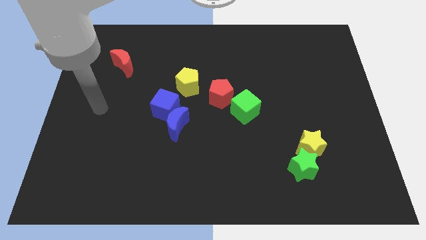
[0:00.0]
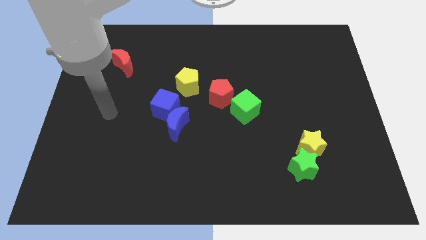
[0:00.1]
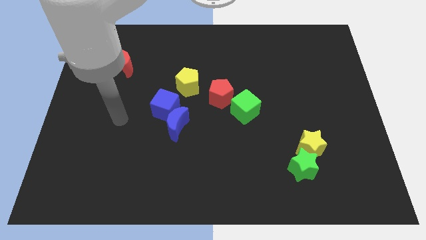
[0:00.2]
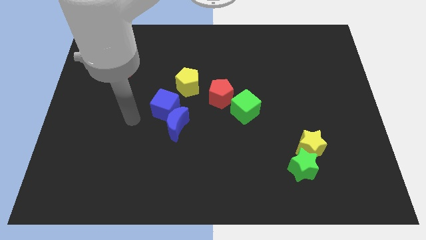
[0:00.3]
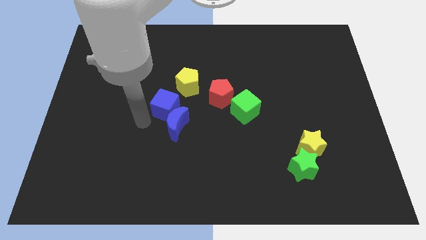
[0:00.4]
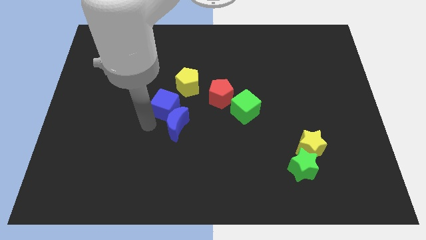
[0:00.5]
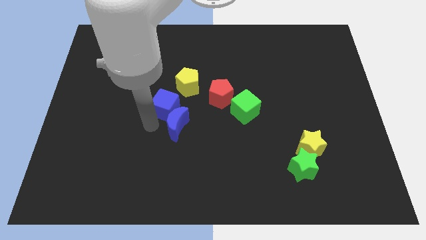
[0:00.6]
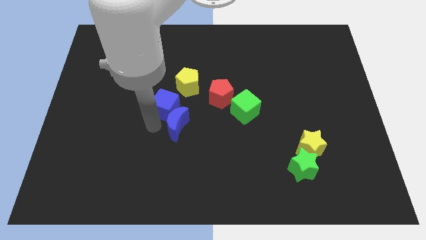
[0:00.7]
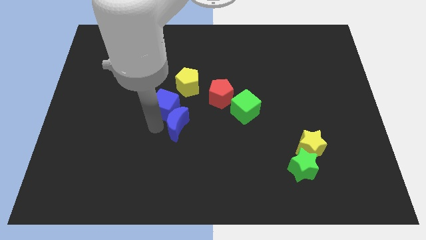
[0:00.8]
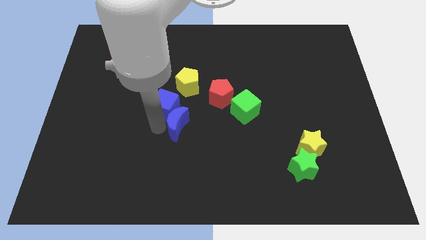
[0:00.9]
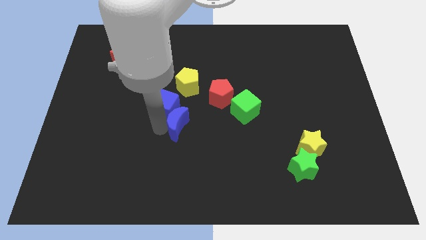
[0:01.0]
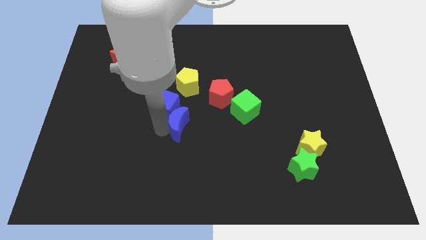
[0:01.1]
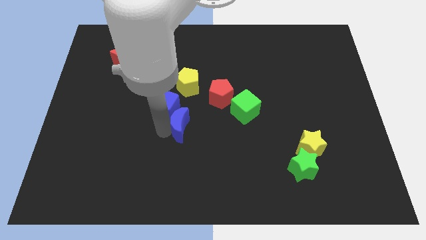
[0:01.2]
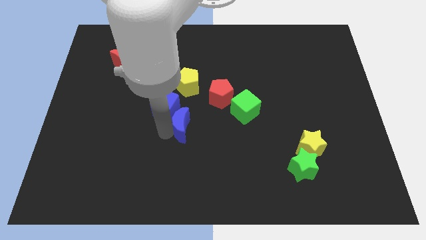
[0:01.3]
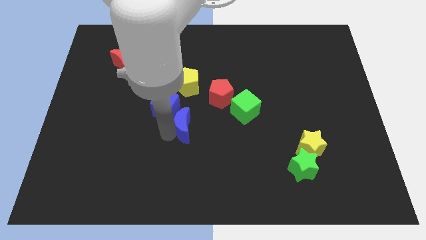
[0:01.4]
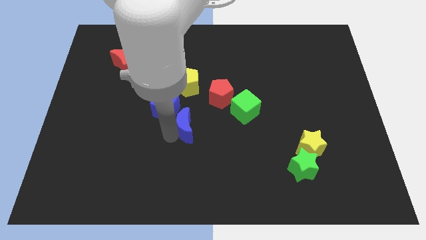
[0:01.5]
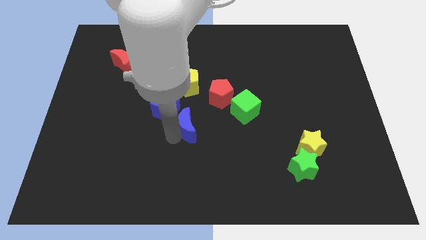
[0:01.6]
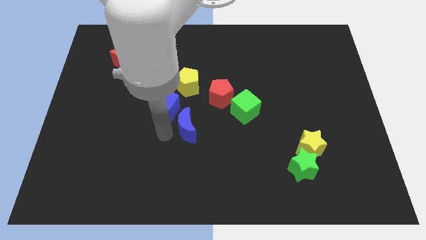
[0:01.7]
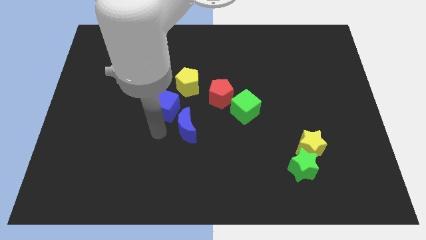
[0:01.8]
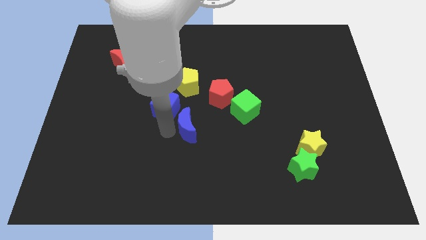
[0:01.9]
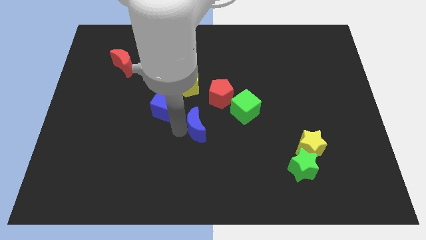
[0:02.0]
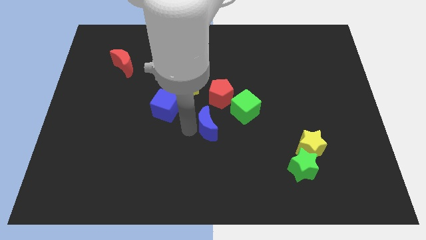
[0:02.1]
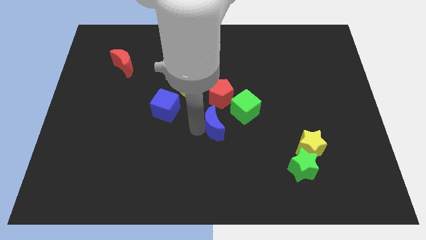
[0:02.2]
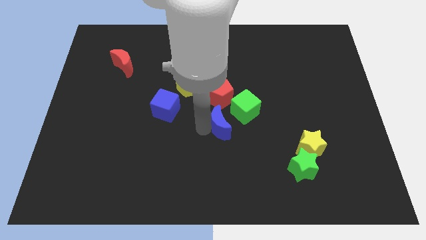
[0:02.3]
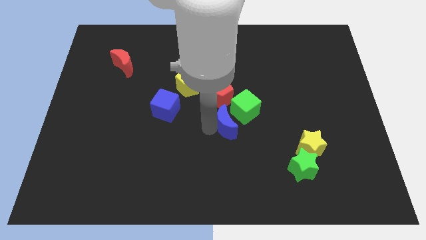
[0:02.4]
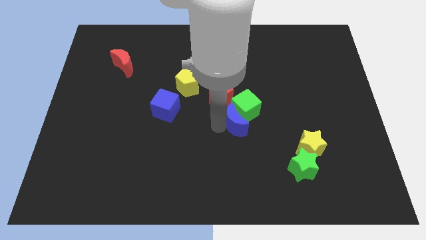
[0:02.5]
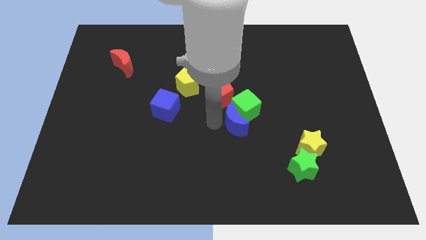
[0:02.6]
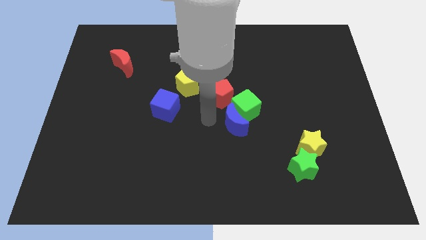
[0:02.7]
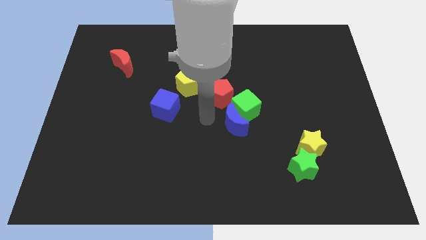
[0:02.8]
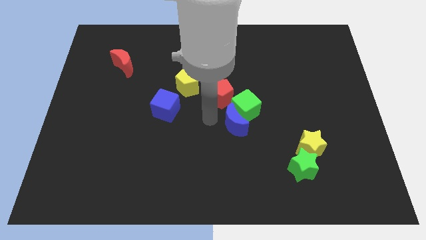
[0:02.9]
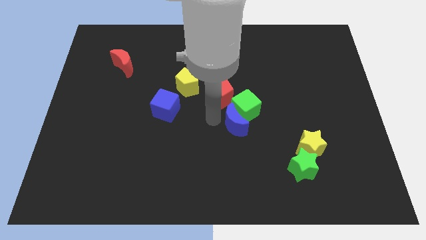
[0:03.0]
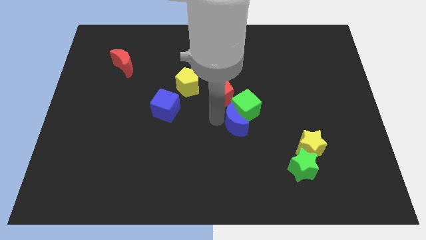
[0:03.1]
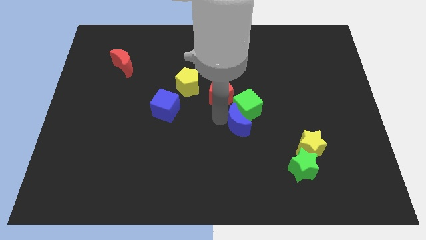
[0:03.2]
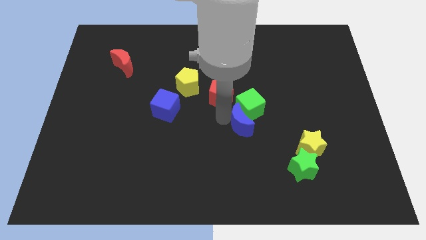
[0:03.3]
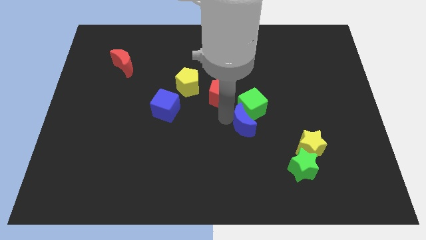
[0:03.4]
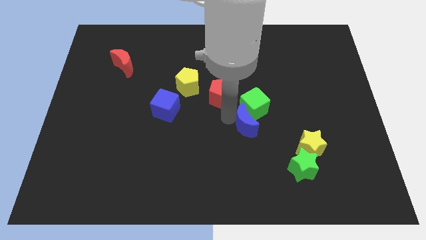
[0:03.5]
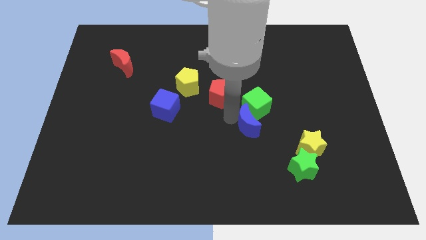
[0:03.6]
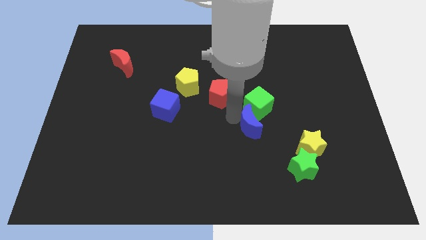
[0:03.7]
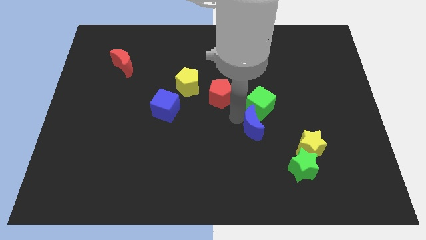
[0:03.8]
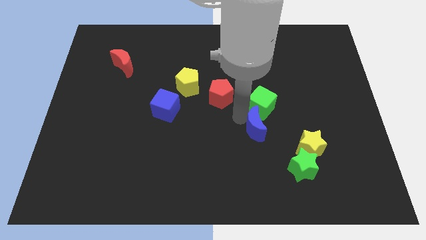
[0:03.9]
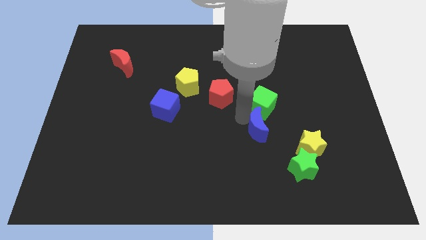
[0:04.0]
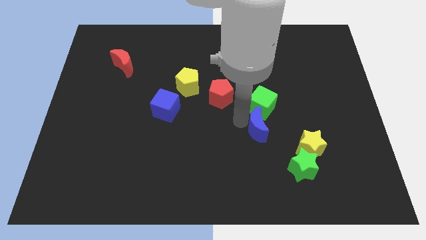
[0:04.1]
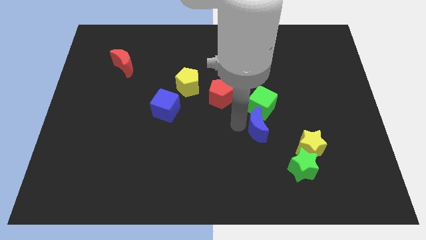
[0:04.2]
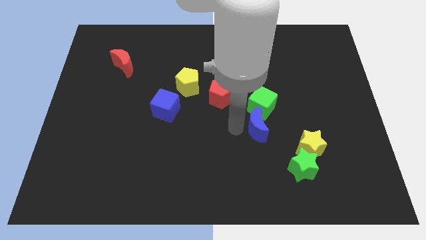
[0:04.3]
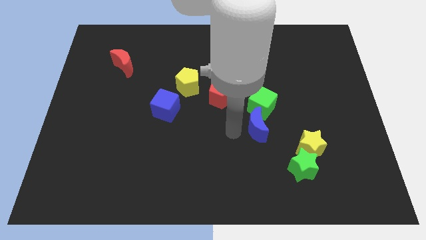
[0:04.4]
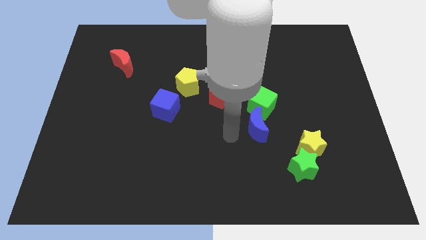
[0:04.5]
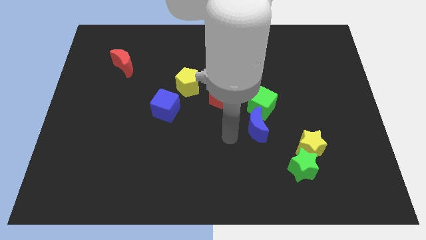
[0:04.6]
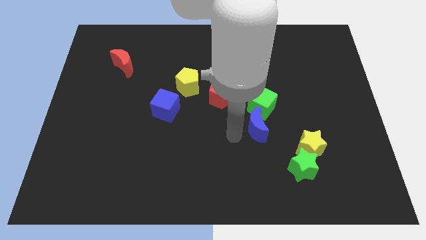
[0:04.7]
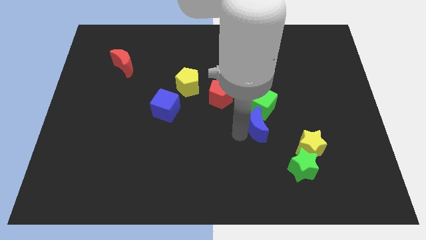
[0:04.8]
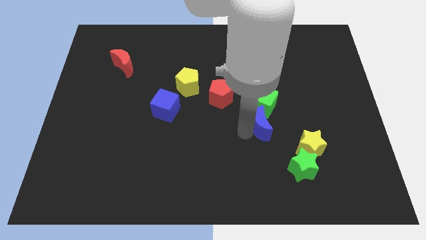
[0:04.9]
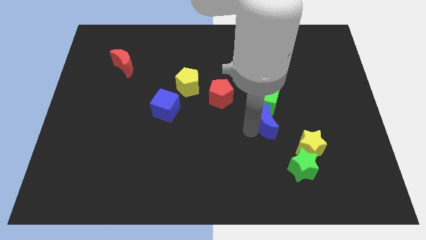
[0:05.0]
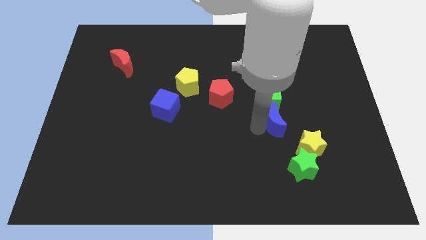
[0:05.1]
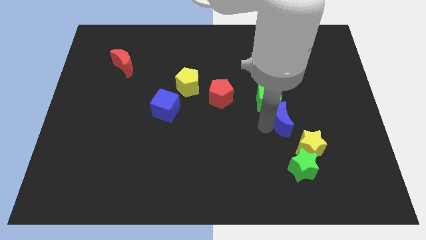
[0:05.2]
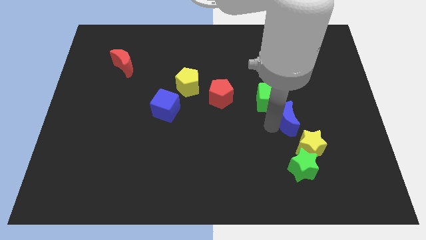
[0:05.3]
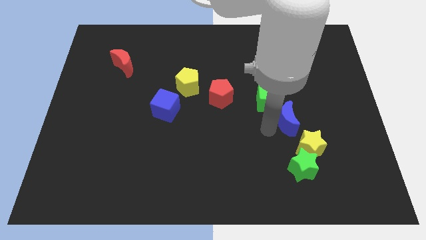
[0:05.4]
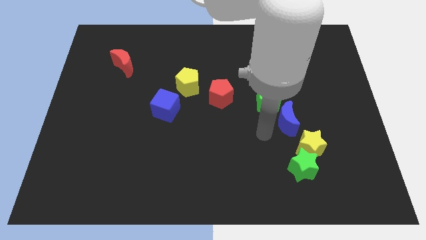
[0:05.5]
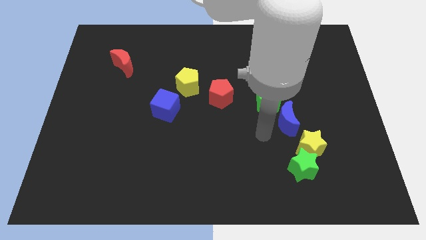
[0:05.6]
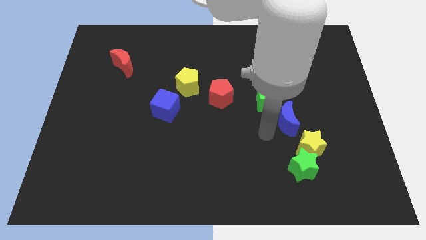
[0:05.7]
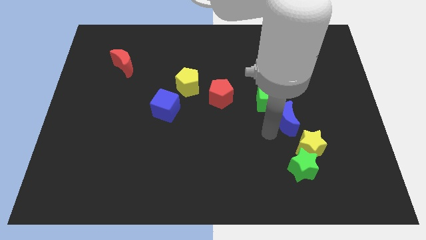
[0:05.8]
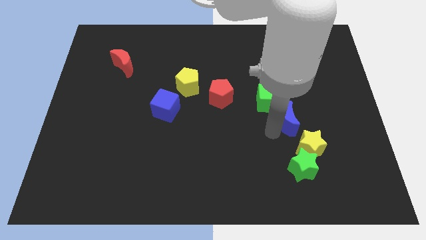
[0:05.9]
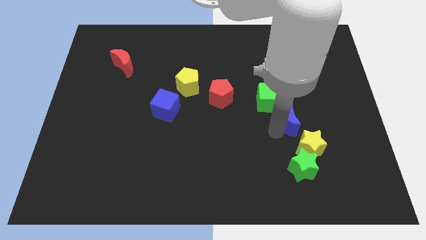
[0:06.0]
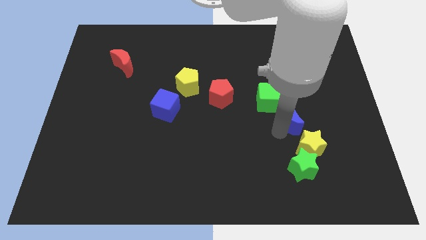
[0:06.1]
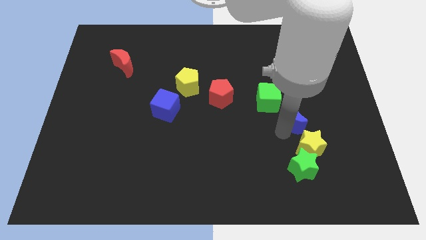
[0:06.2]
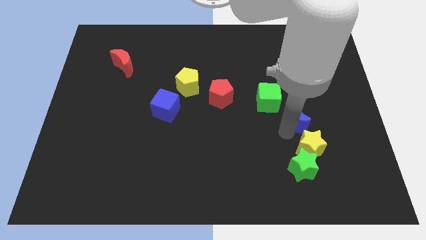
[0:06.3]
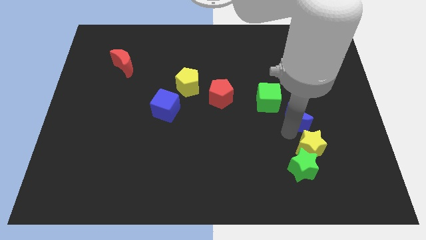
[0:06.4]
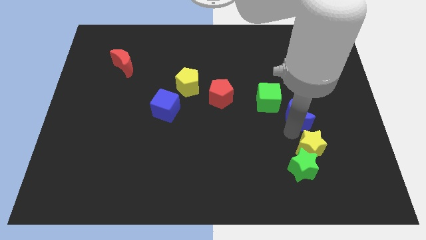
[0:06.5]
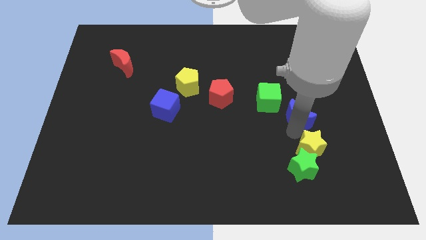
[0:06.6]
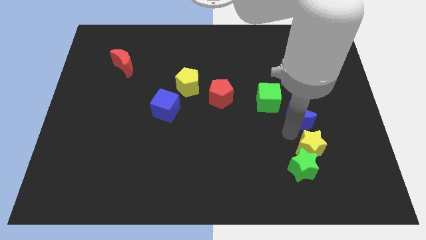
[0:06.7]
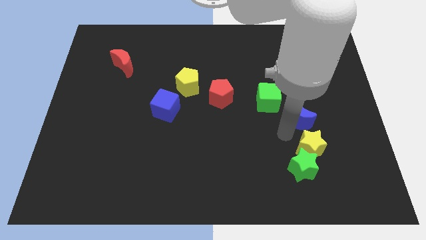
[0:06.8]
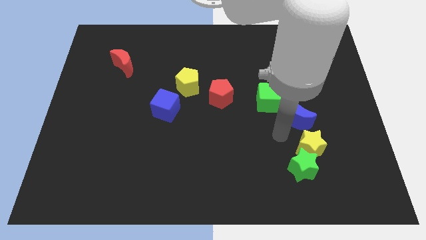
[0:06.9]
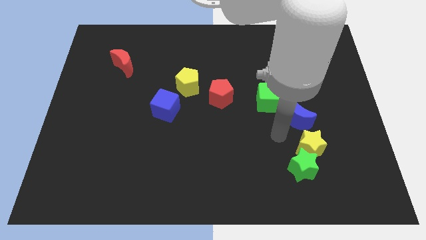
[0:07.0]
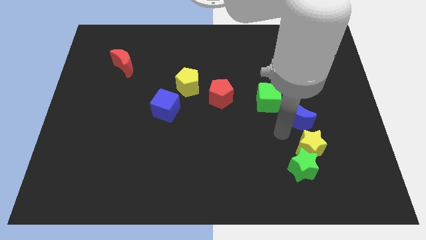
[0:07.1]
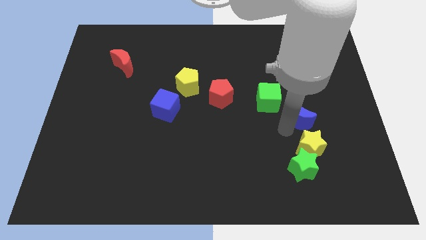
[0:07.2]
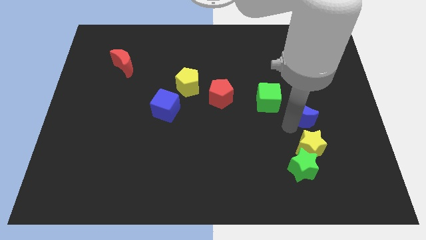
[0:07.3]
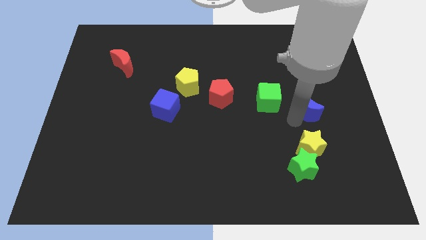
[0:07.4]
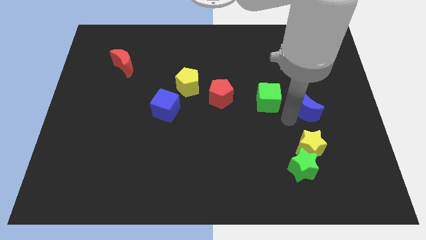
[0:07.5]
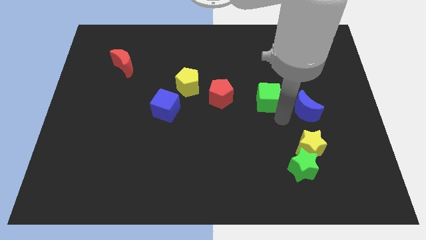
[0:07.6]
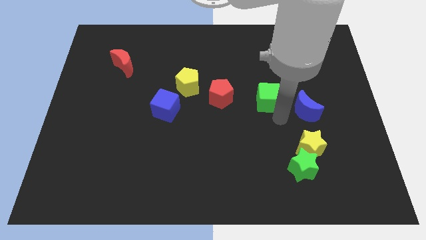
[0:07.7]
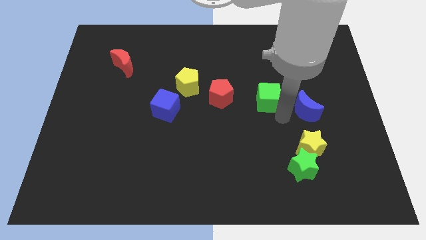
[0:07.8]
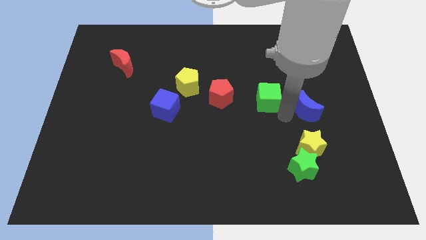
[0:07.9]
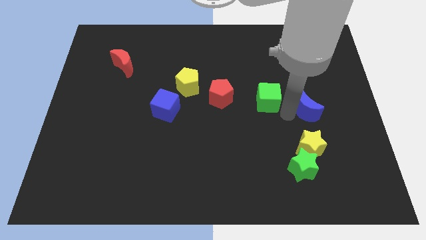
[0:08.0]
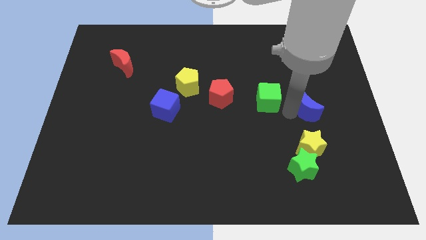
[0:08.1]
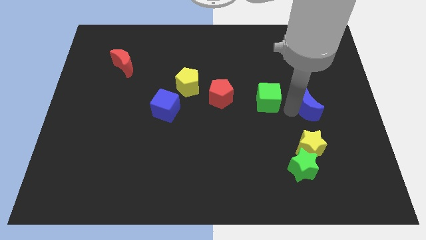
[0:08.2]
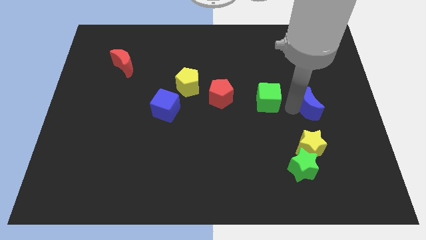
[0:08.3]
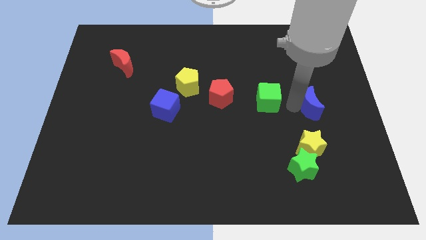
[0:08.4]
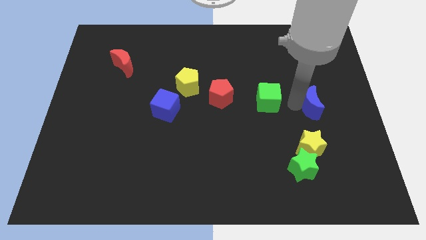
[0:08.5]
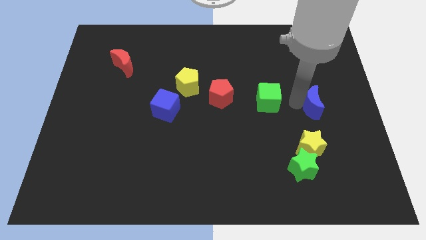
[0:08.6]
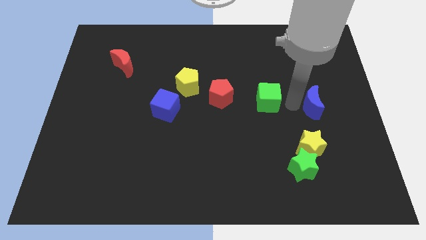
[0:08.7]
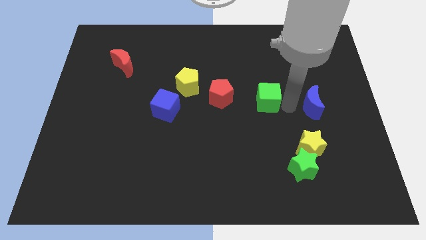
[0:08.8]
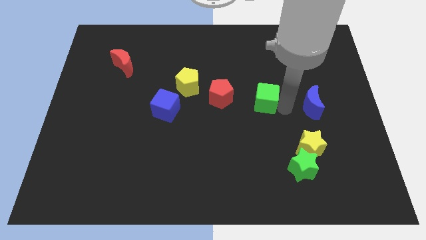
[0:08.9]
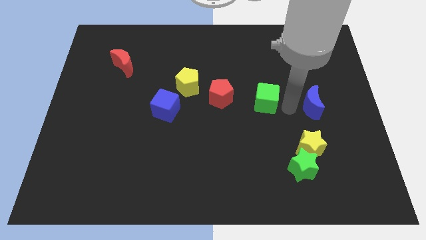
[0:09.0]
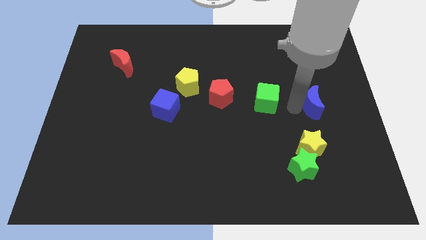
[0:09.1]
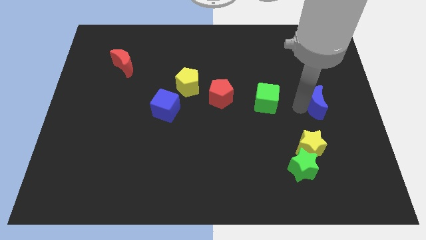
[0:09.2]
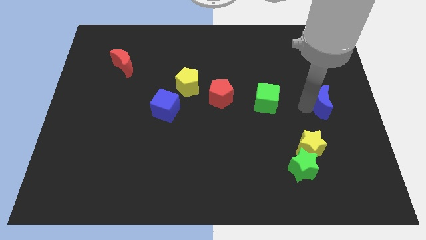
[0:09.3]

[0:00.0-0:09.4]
put the blue moon to the center right
